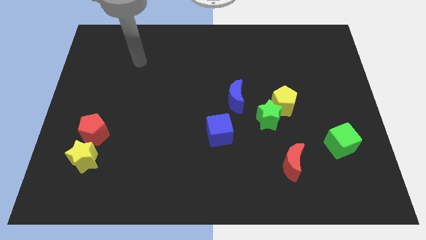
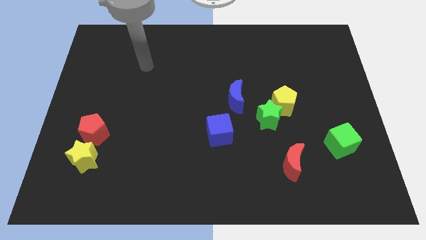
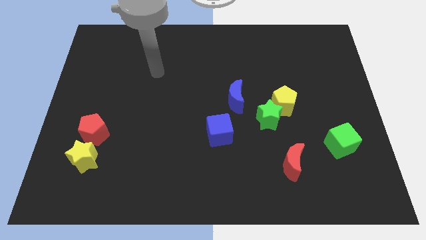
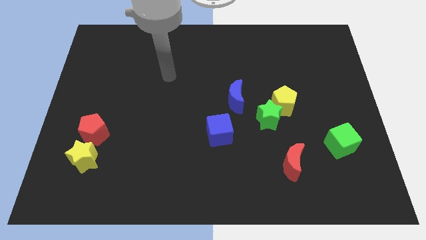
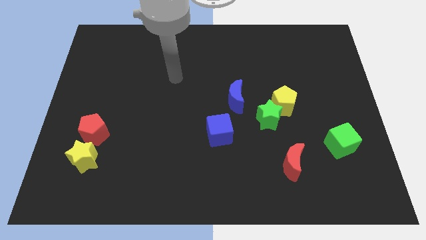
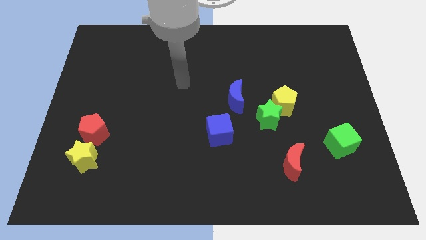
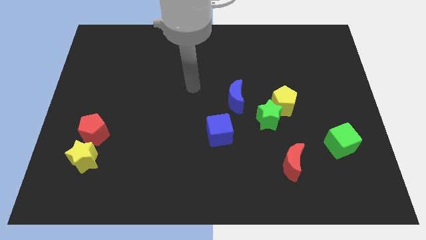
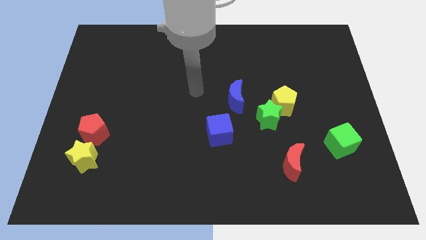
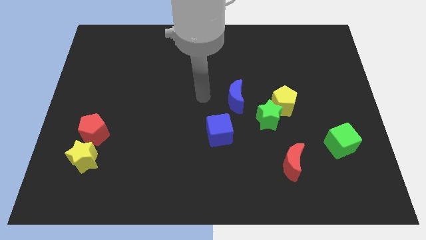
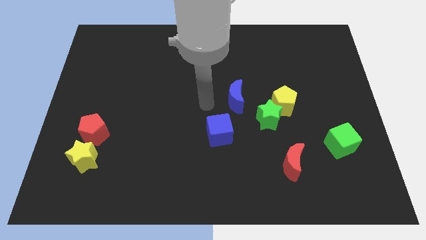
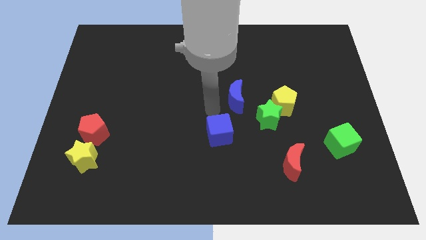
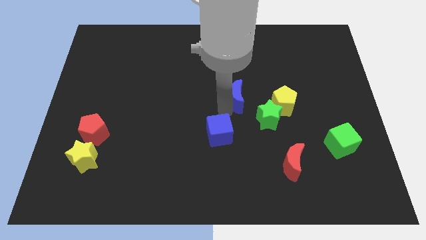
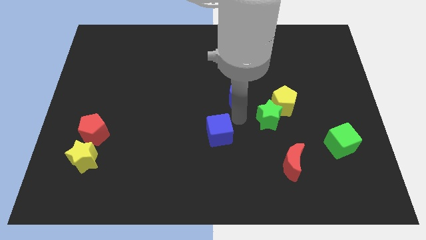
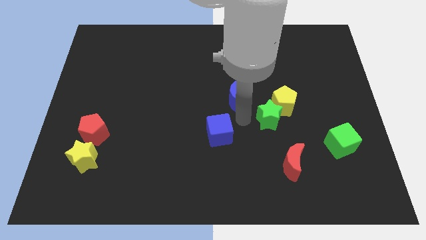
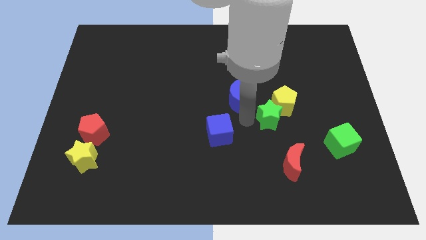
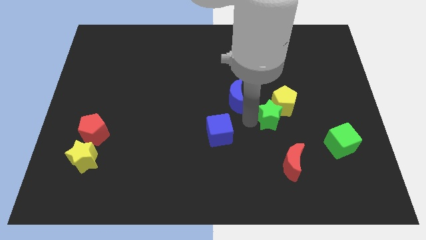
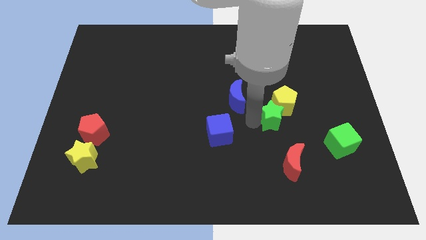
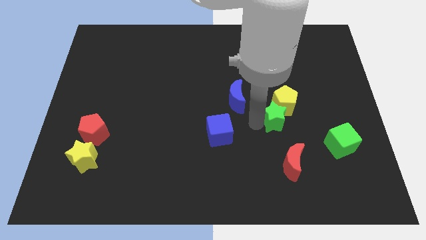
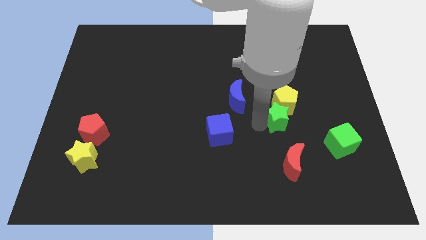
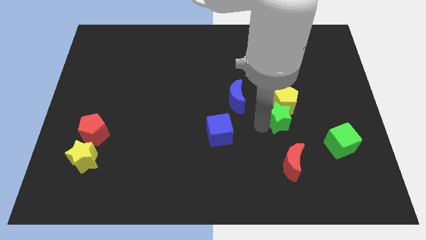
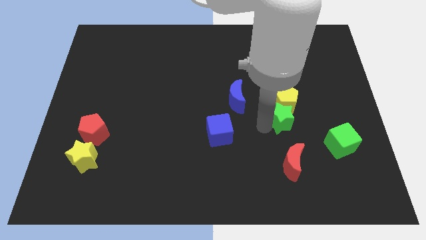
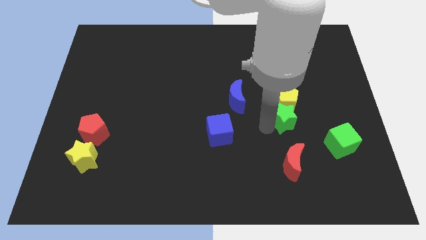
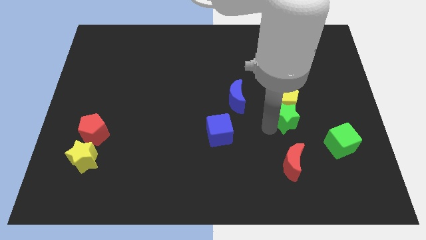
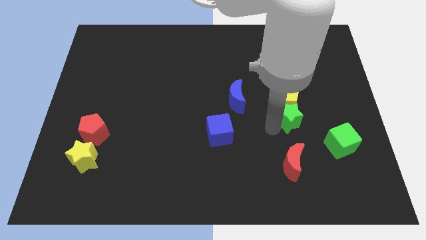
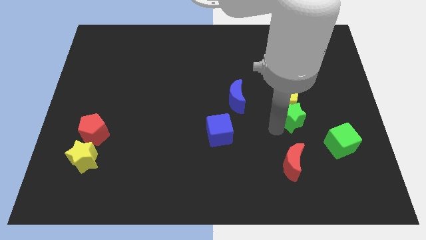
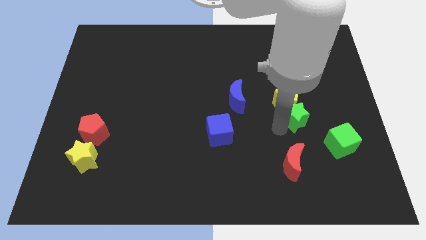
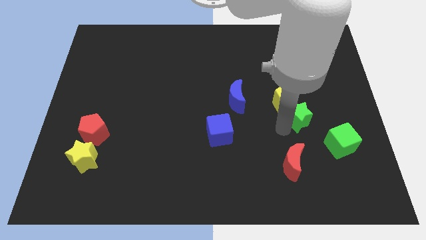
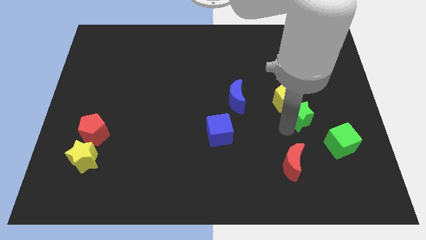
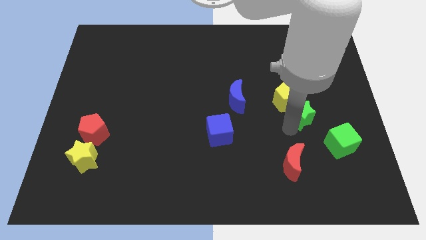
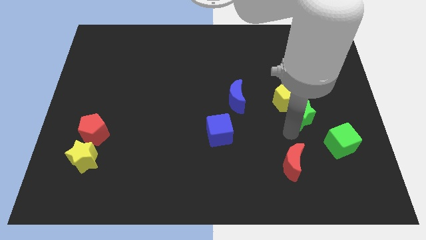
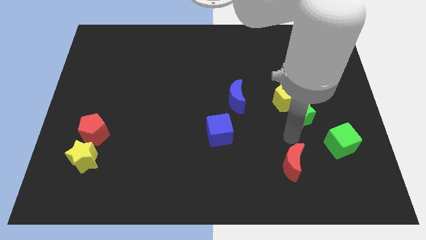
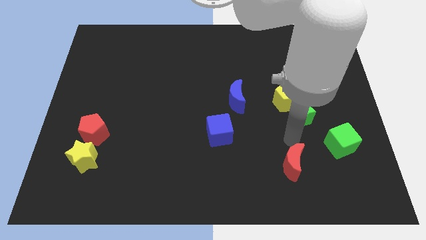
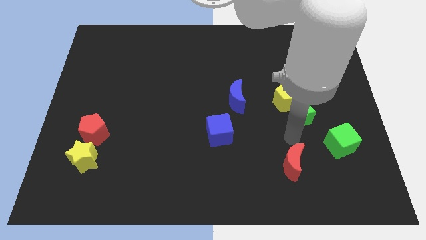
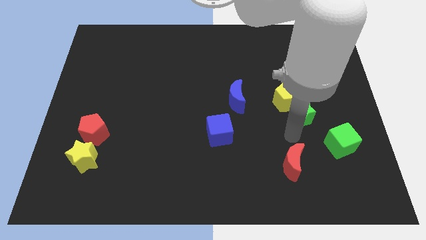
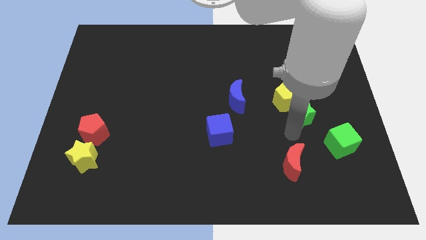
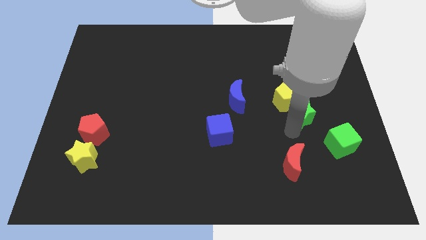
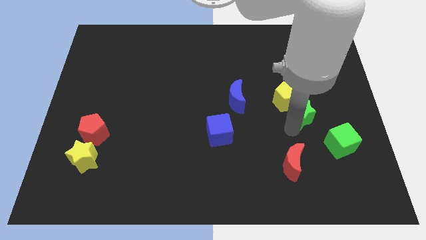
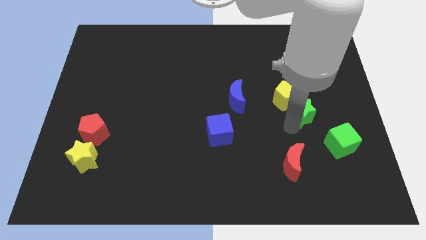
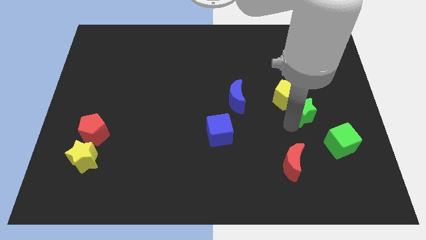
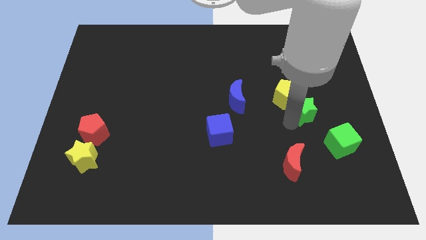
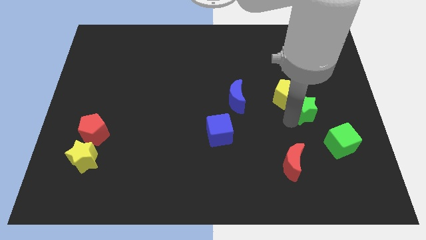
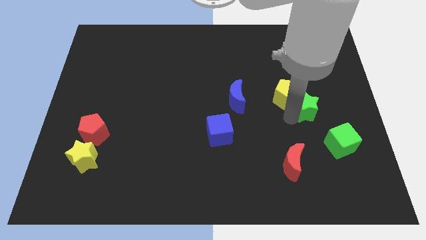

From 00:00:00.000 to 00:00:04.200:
slide the green star slightly upwards and right

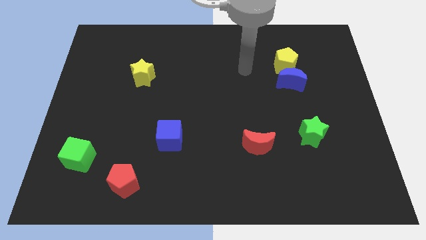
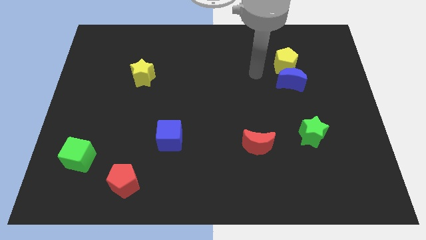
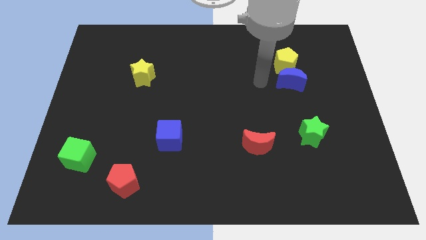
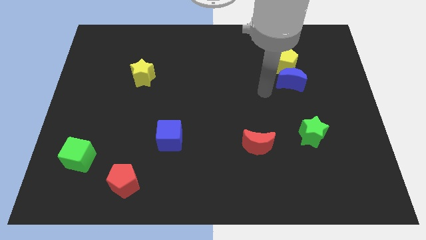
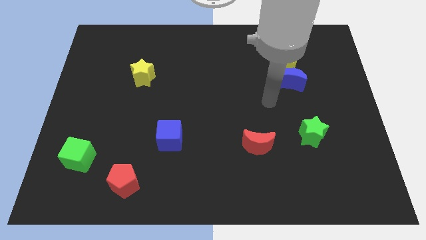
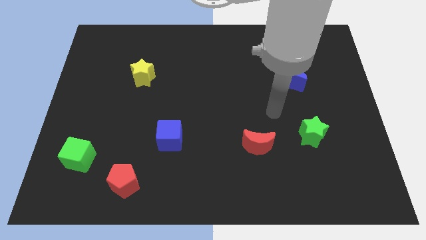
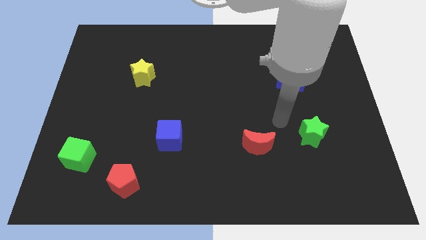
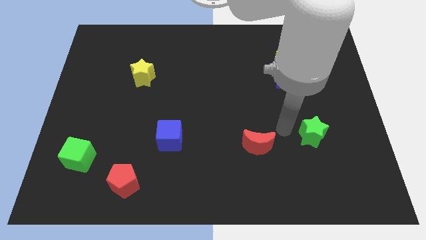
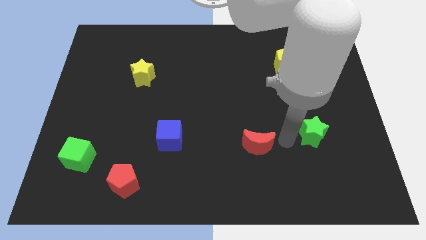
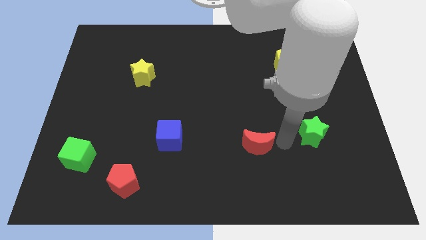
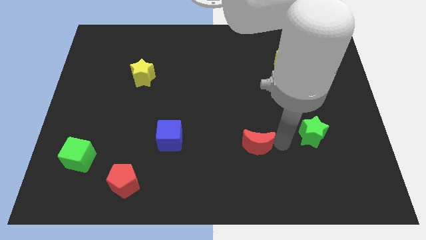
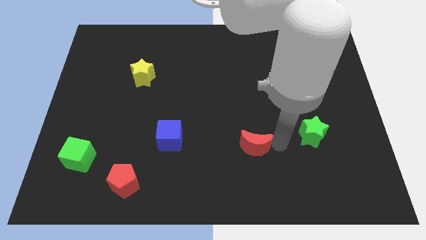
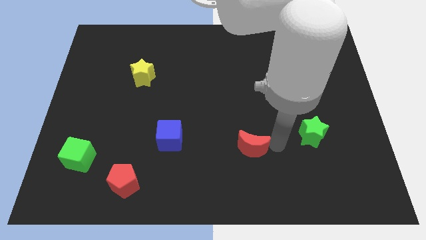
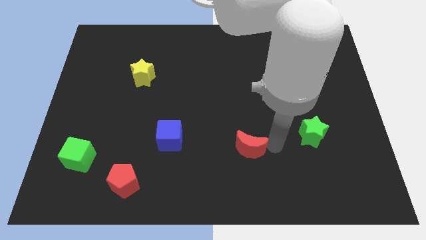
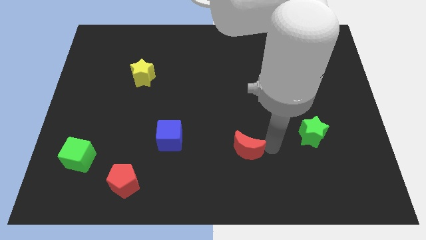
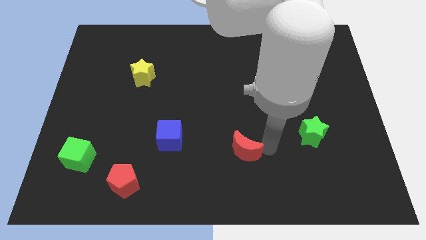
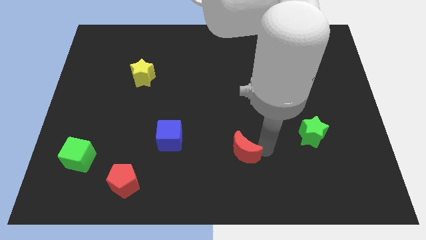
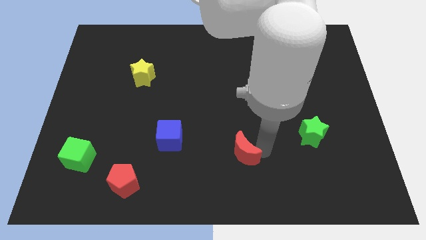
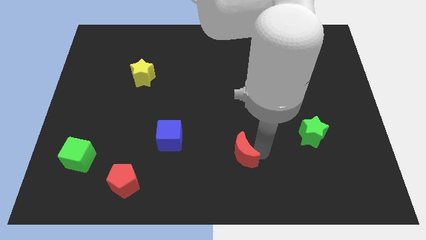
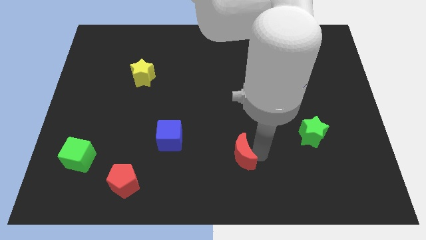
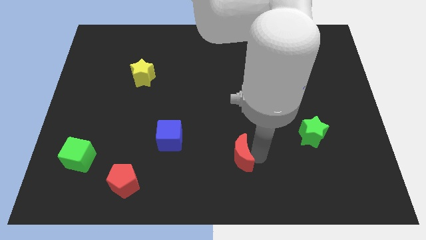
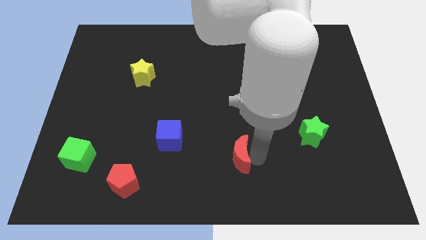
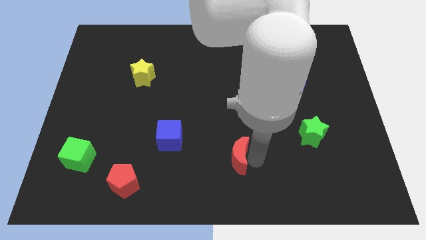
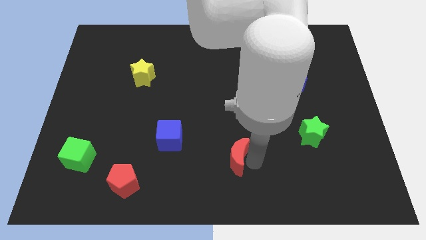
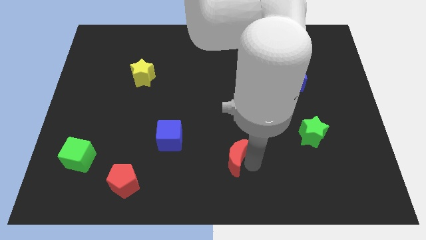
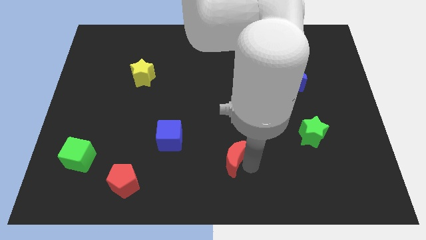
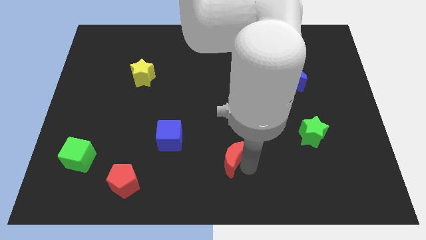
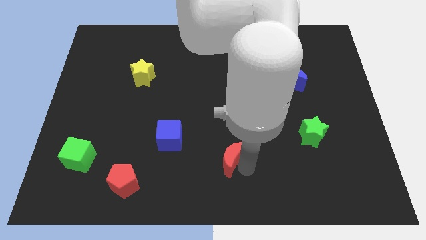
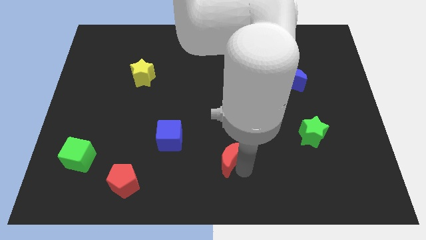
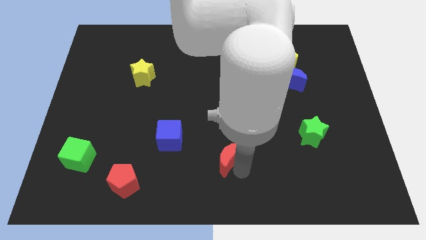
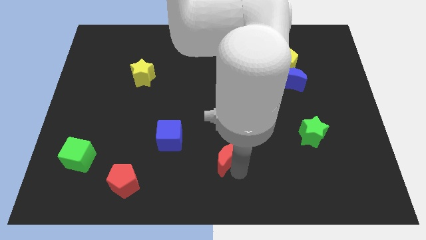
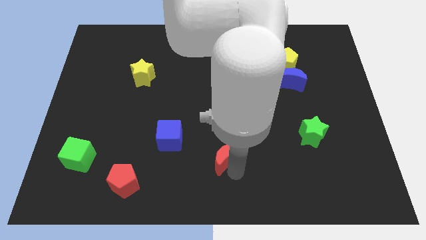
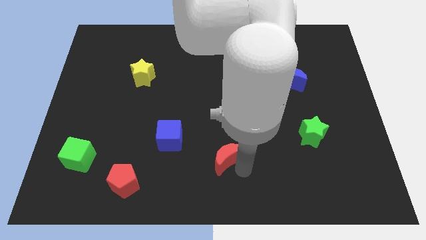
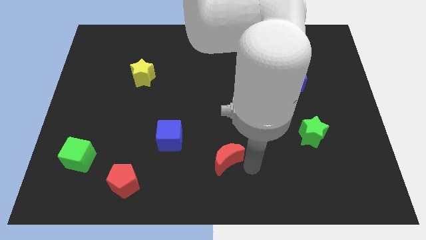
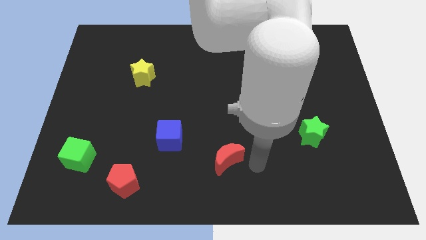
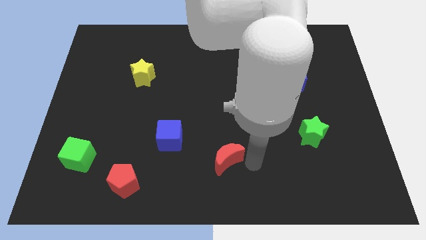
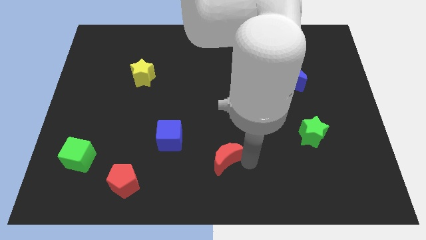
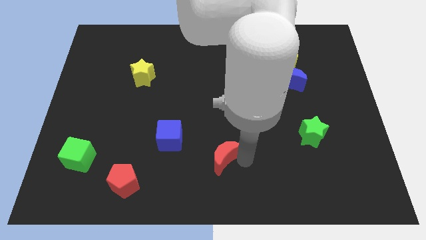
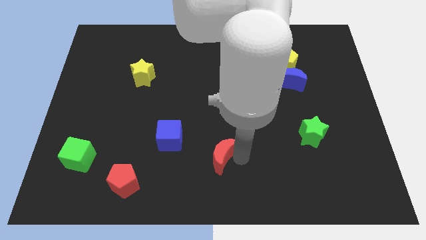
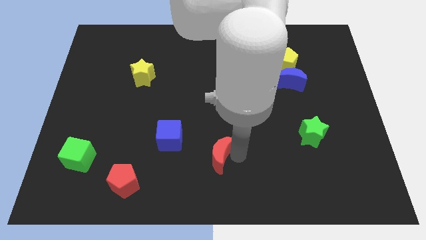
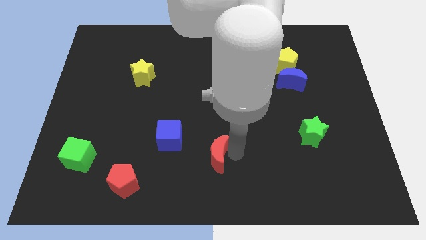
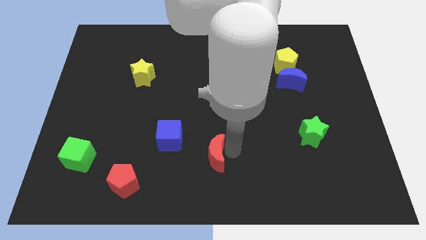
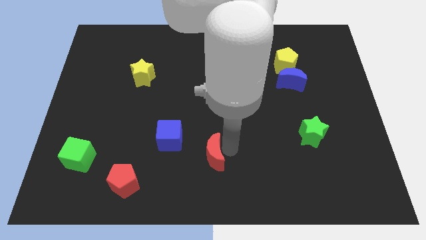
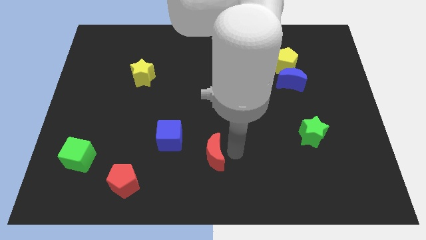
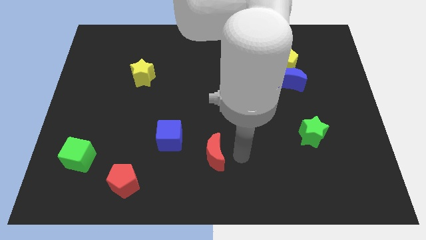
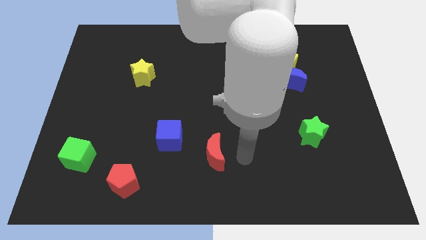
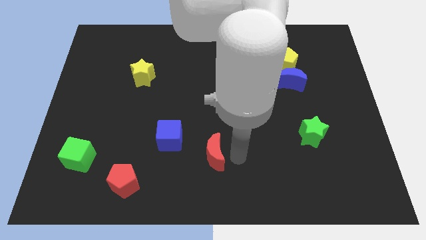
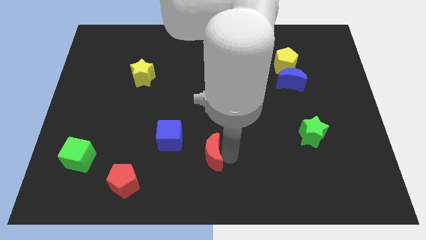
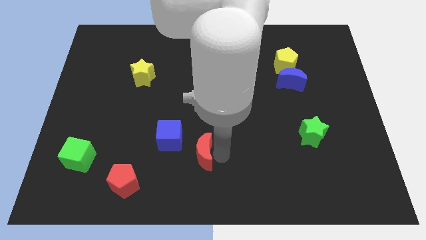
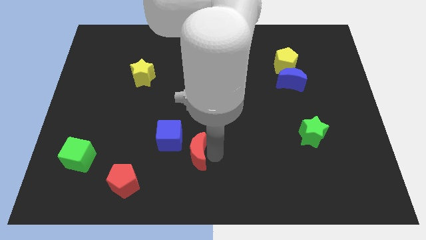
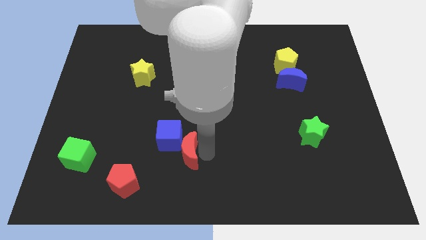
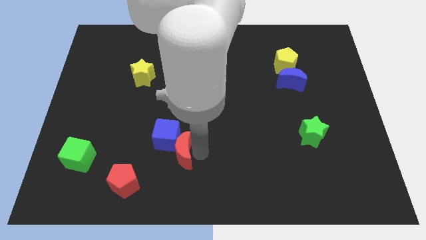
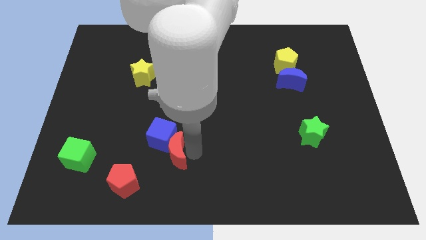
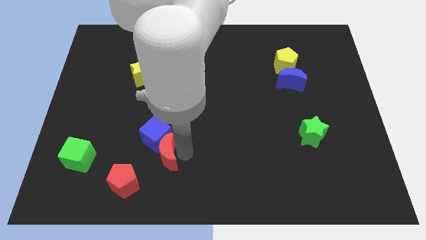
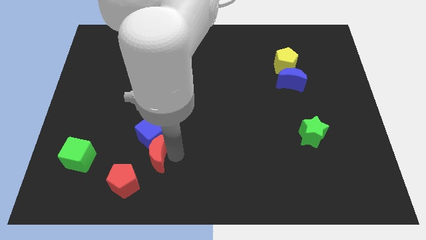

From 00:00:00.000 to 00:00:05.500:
move the red moon to the left
